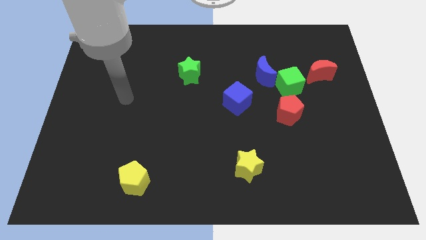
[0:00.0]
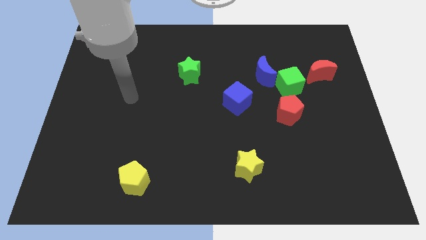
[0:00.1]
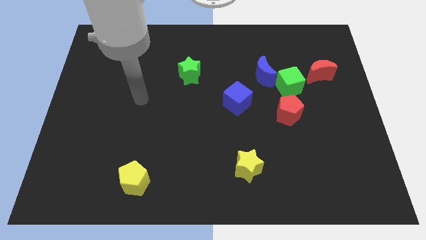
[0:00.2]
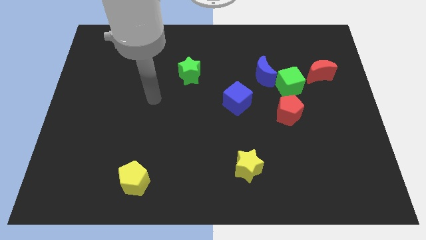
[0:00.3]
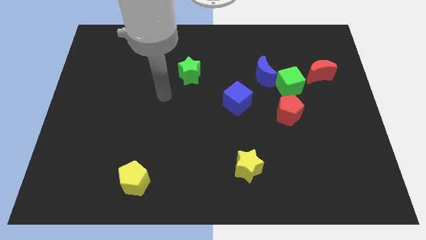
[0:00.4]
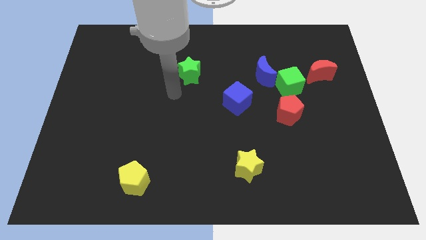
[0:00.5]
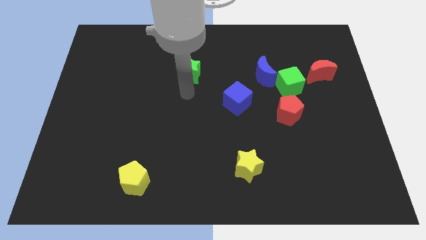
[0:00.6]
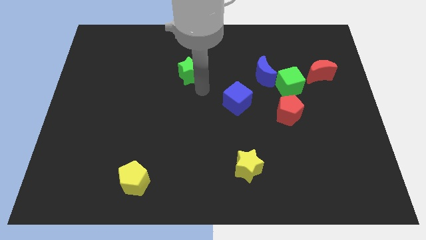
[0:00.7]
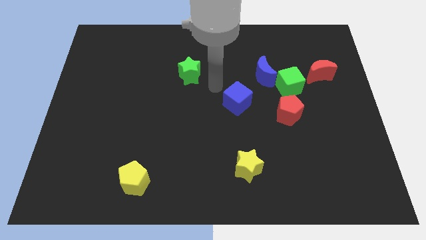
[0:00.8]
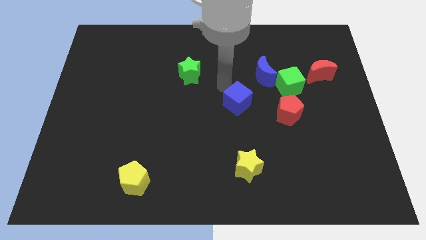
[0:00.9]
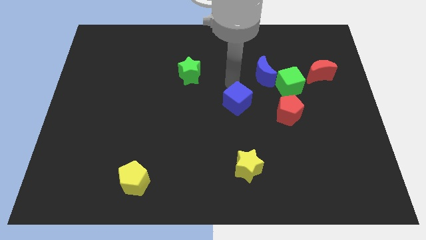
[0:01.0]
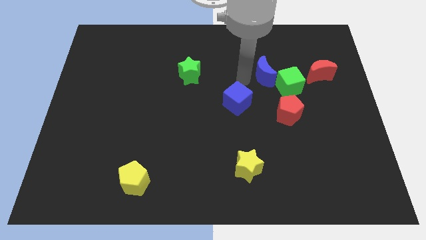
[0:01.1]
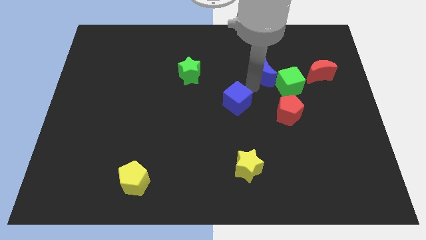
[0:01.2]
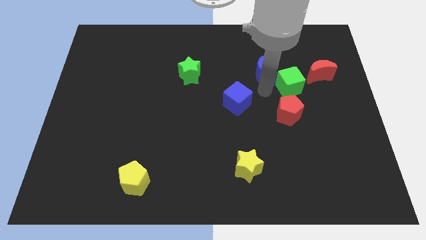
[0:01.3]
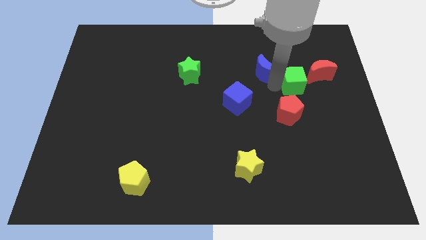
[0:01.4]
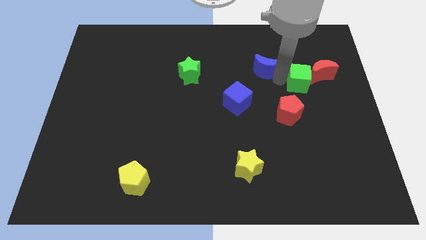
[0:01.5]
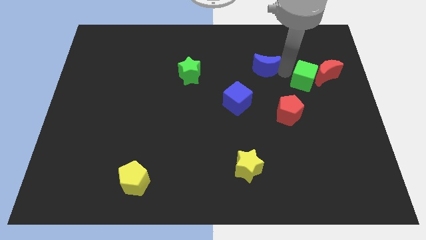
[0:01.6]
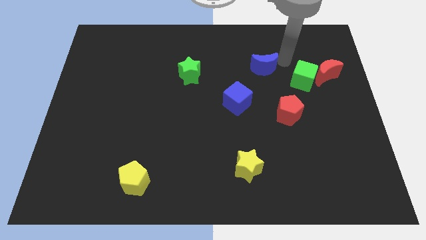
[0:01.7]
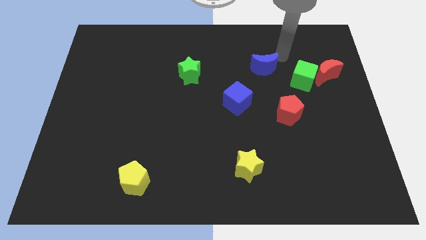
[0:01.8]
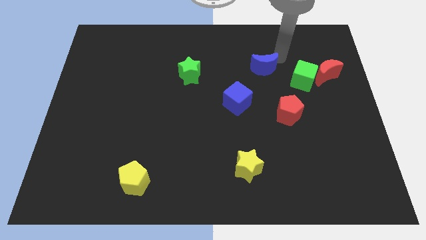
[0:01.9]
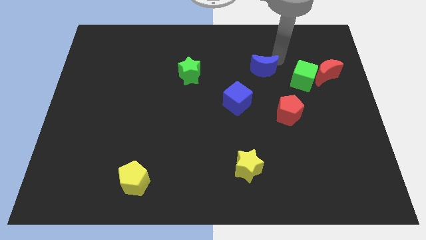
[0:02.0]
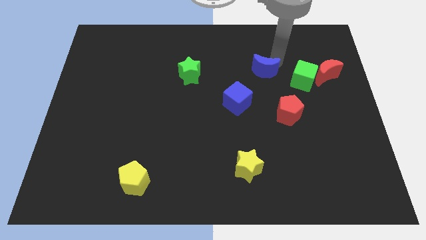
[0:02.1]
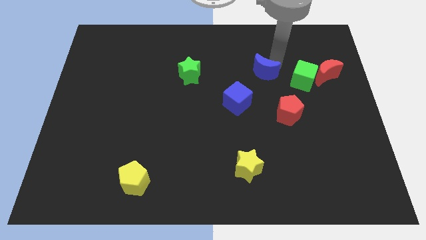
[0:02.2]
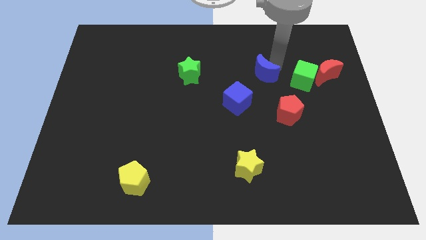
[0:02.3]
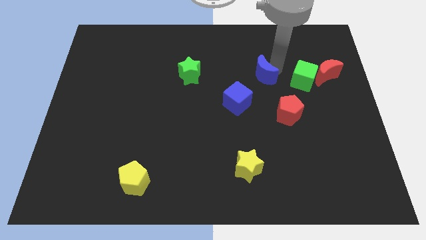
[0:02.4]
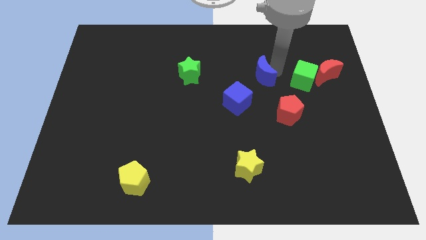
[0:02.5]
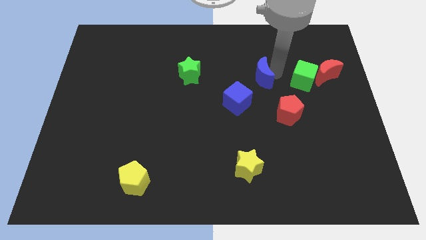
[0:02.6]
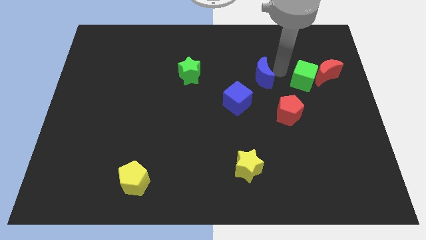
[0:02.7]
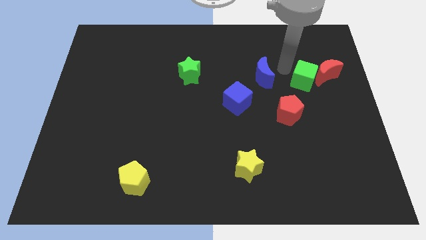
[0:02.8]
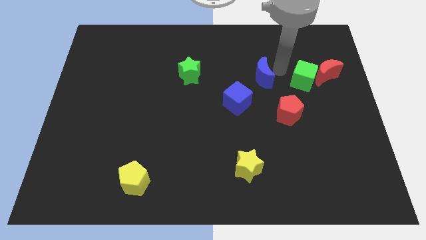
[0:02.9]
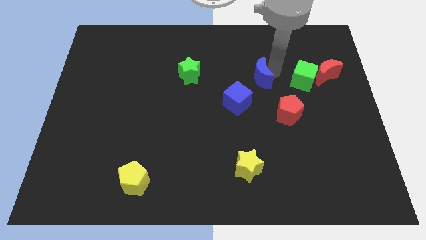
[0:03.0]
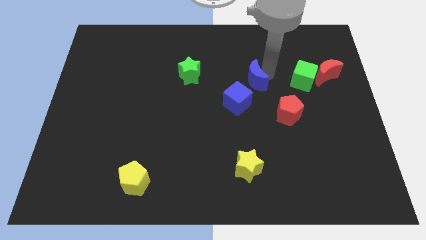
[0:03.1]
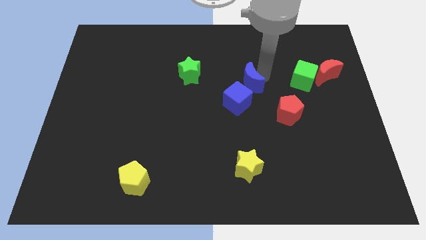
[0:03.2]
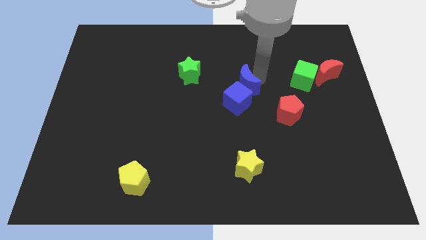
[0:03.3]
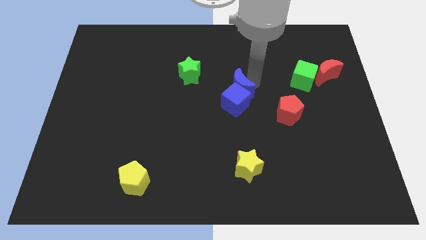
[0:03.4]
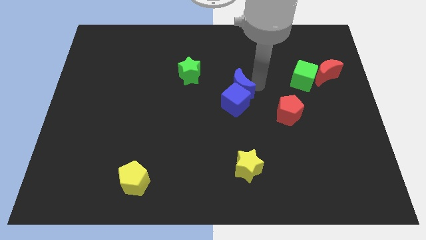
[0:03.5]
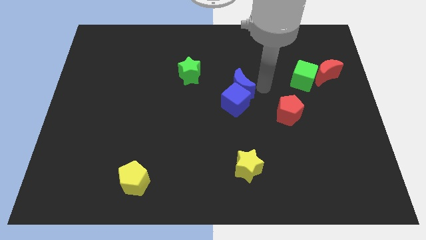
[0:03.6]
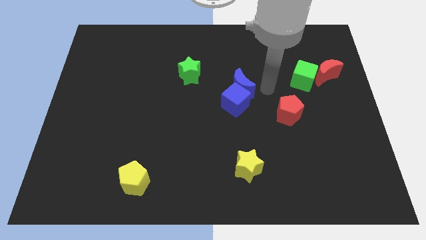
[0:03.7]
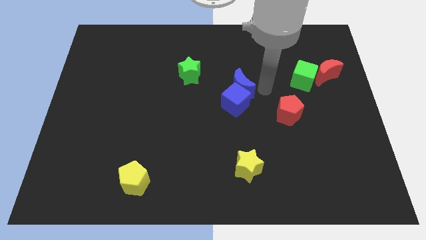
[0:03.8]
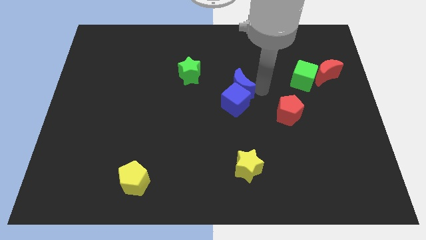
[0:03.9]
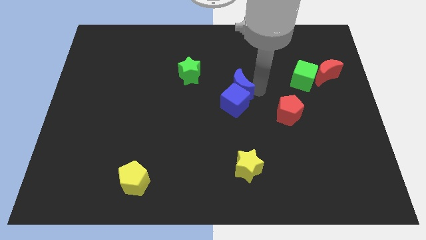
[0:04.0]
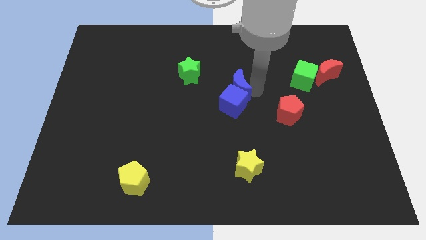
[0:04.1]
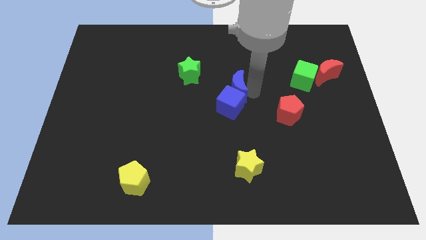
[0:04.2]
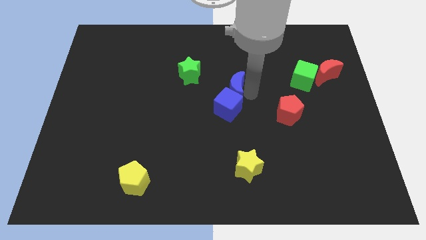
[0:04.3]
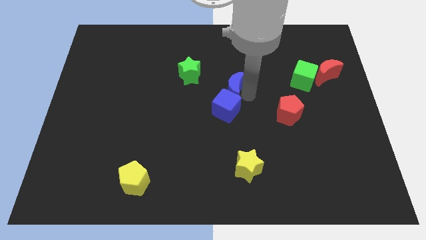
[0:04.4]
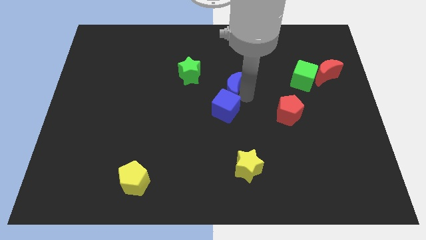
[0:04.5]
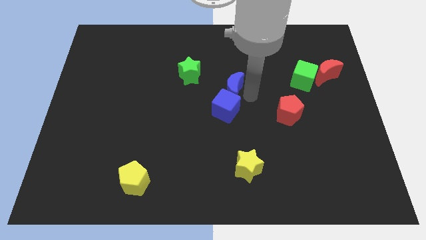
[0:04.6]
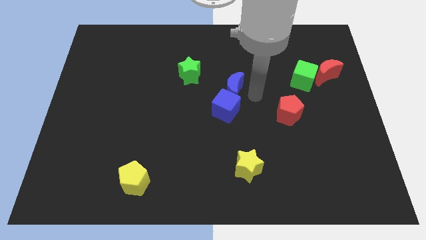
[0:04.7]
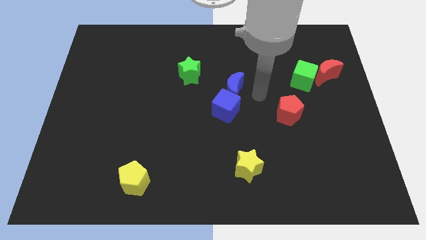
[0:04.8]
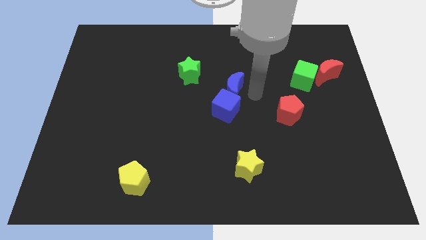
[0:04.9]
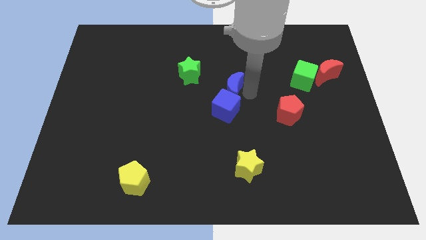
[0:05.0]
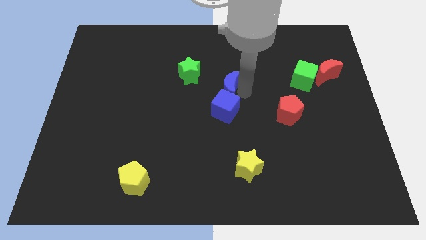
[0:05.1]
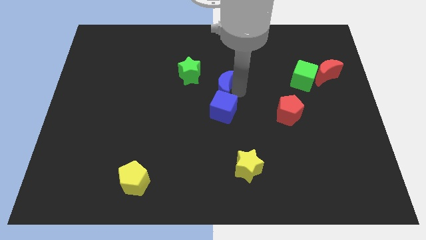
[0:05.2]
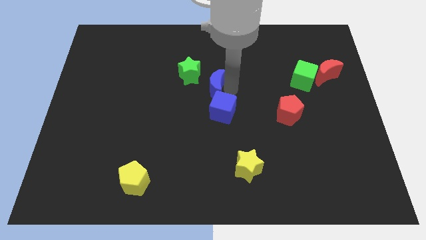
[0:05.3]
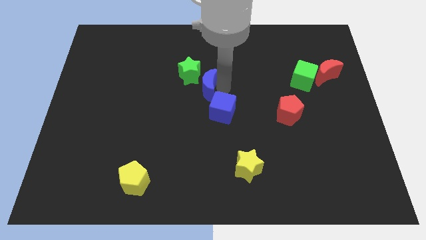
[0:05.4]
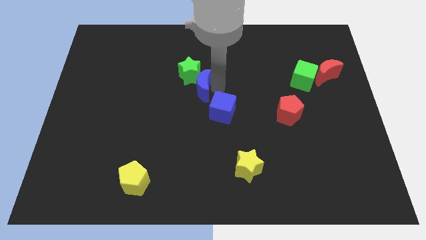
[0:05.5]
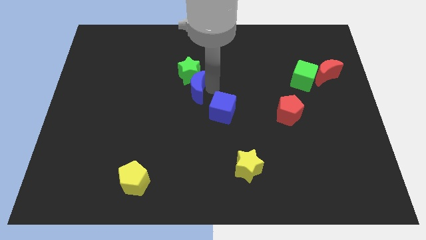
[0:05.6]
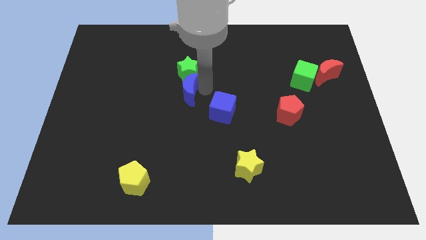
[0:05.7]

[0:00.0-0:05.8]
put the blue moon to the bottom left of the green star

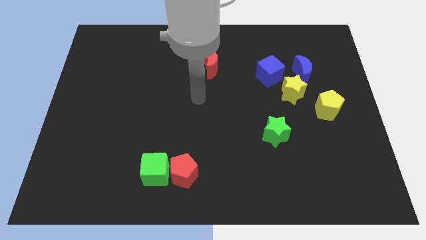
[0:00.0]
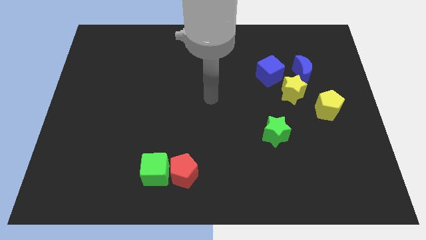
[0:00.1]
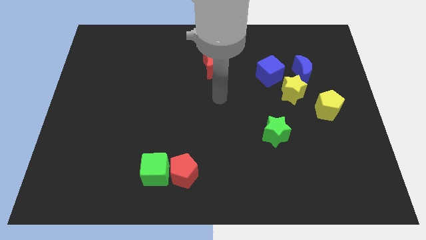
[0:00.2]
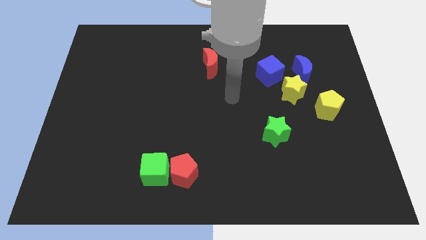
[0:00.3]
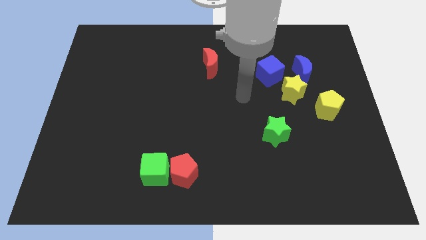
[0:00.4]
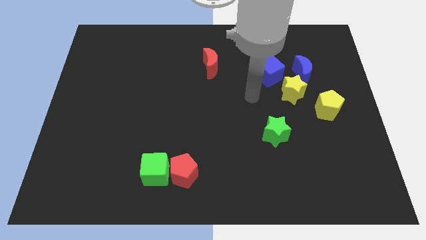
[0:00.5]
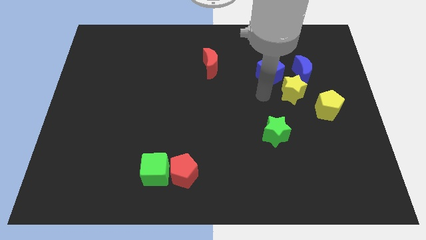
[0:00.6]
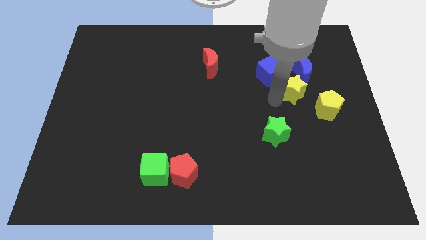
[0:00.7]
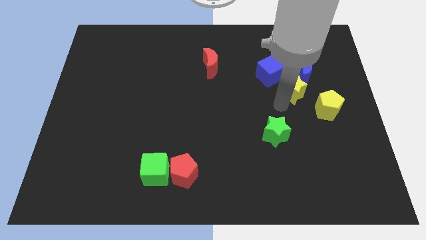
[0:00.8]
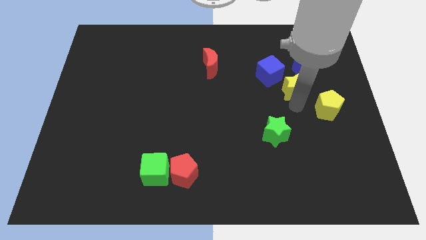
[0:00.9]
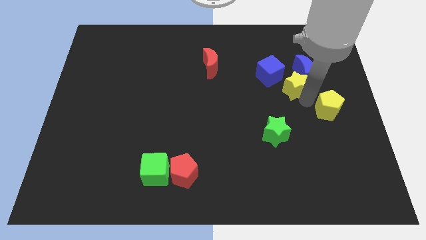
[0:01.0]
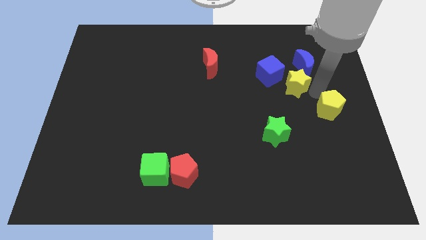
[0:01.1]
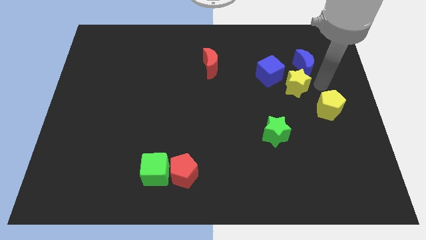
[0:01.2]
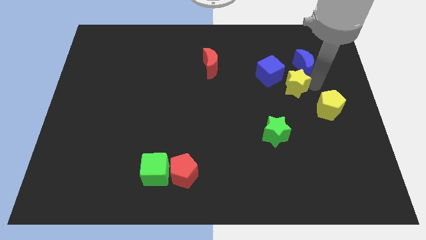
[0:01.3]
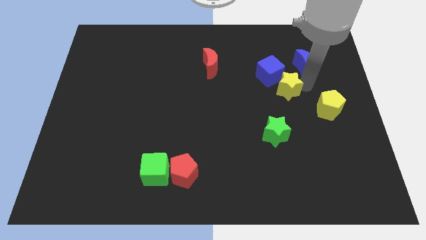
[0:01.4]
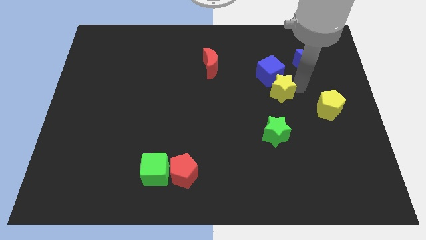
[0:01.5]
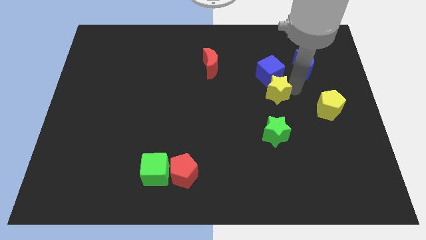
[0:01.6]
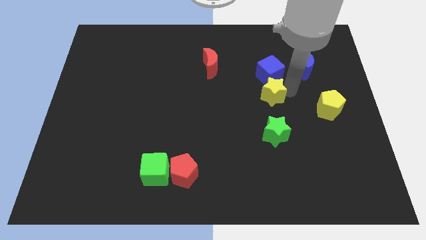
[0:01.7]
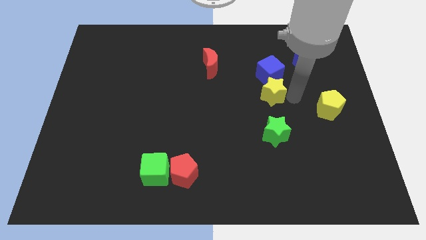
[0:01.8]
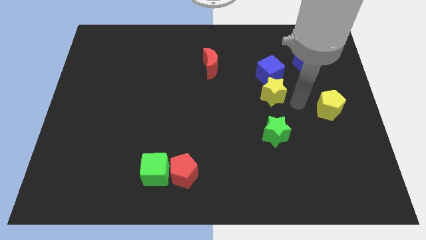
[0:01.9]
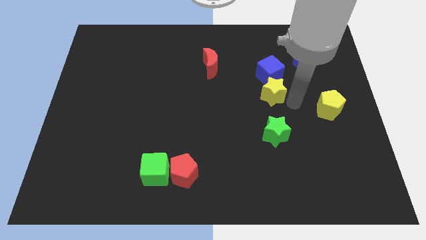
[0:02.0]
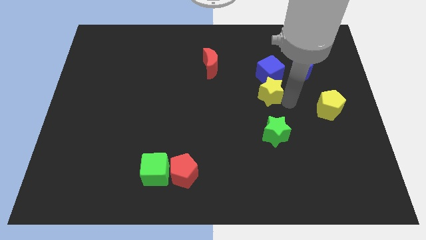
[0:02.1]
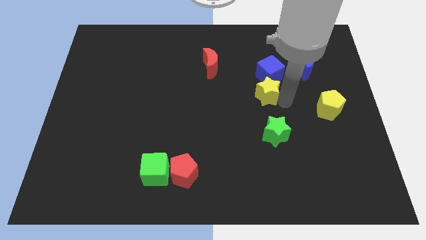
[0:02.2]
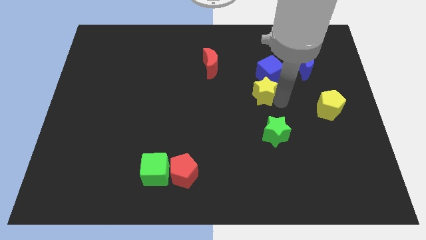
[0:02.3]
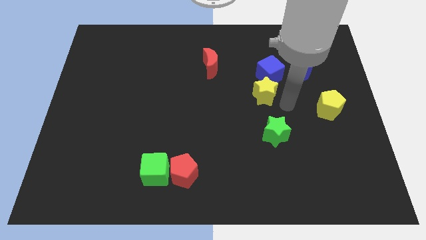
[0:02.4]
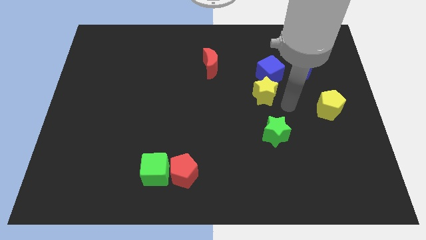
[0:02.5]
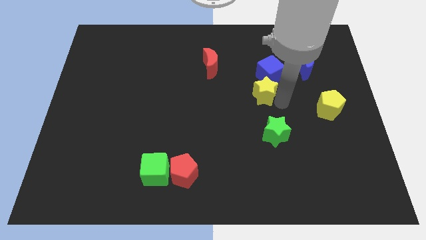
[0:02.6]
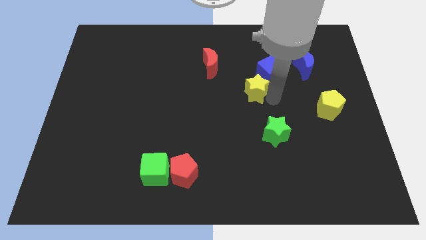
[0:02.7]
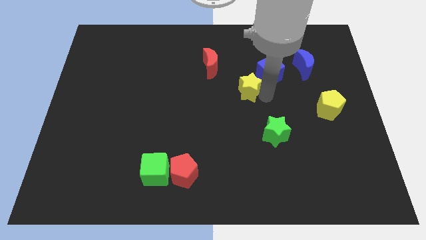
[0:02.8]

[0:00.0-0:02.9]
push the yellow star diagonally down and to the right of the red moon
